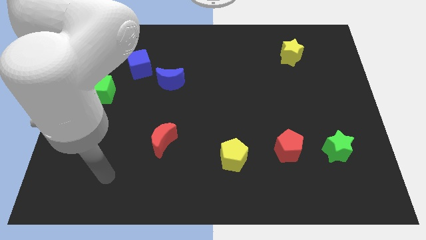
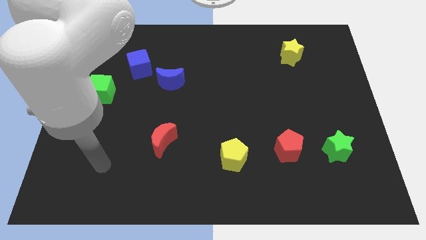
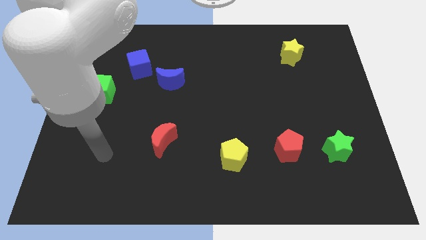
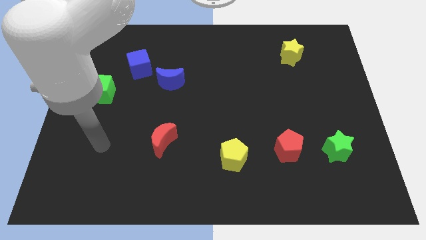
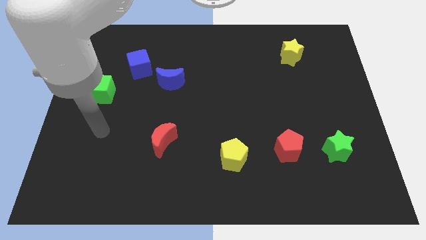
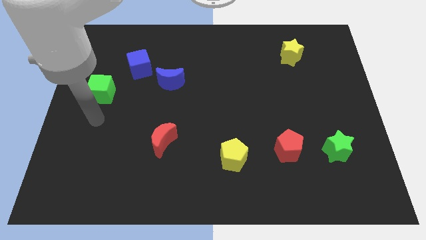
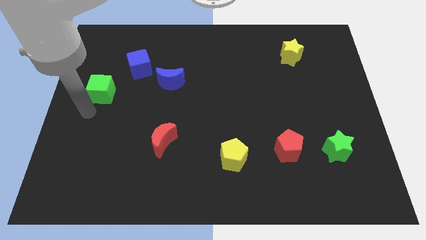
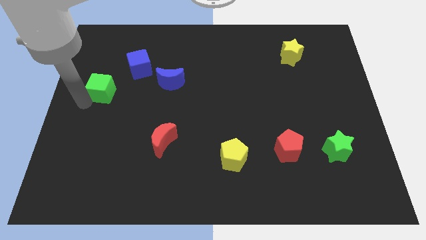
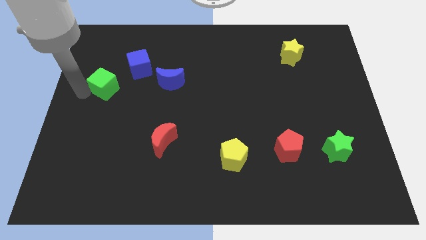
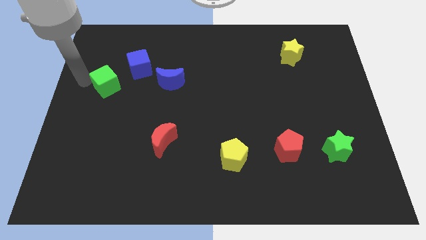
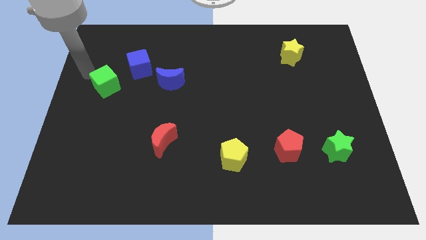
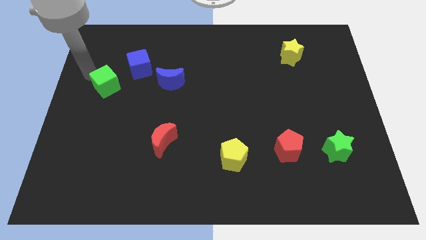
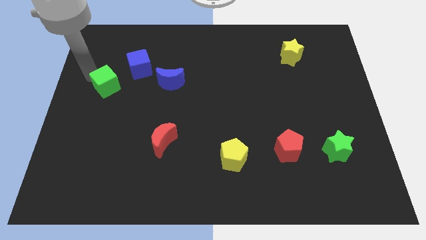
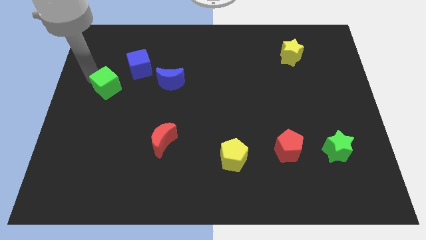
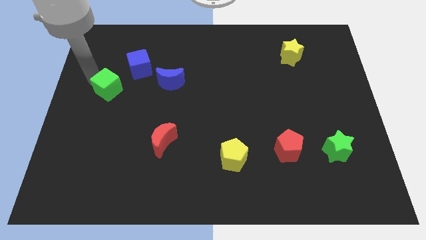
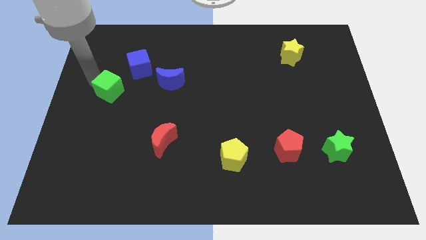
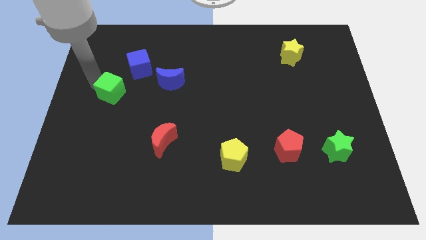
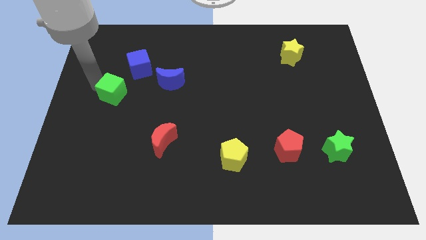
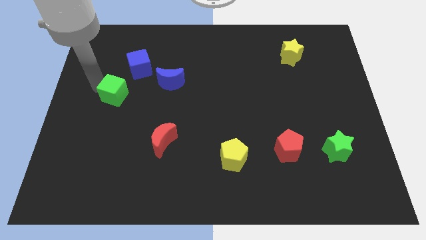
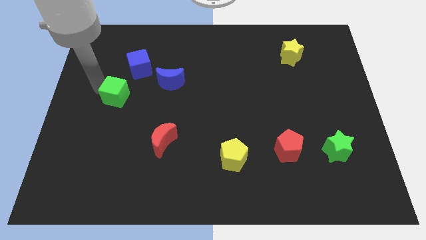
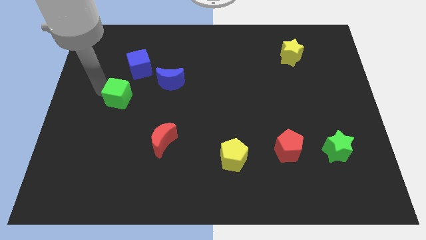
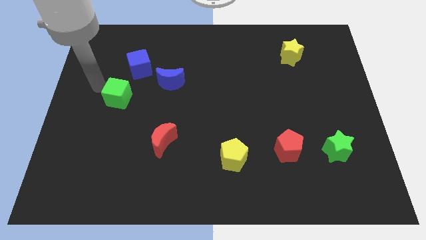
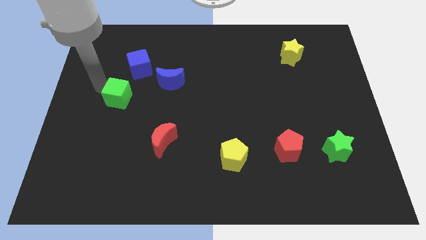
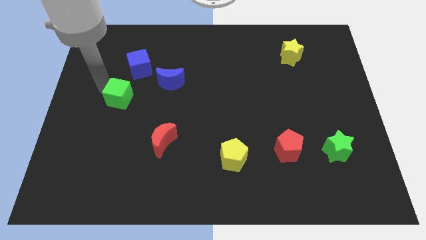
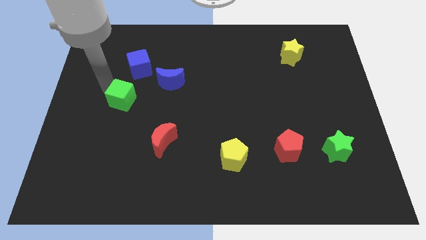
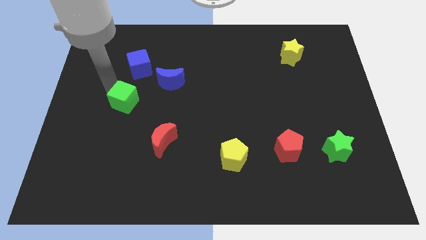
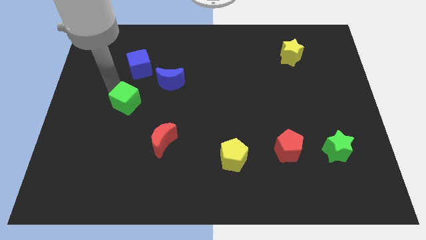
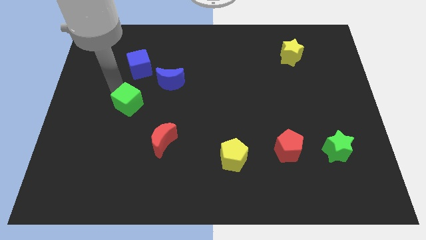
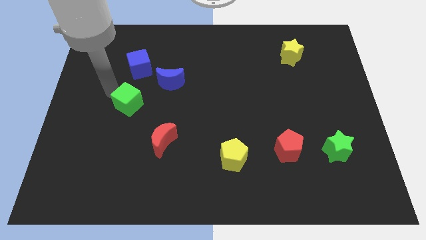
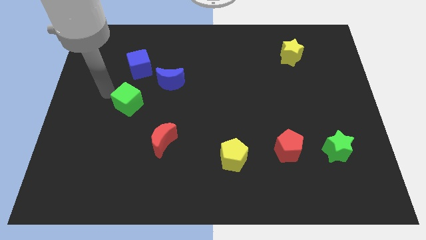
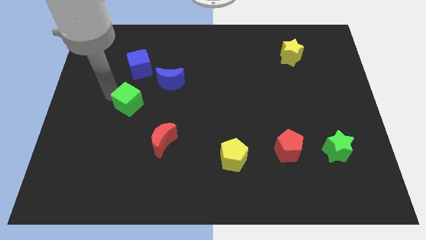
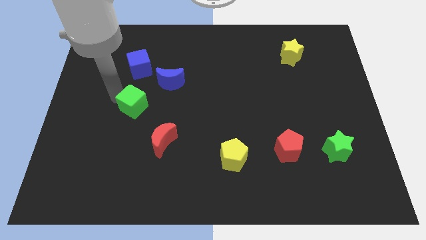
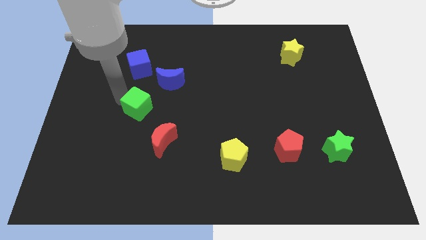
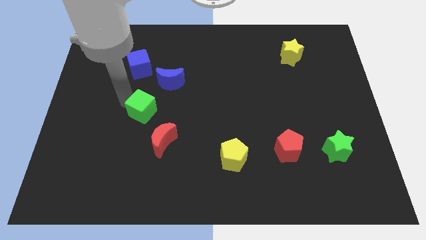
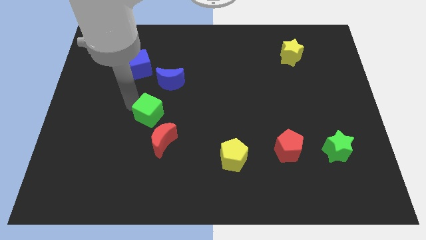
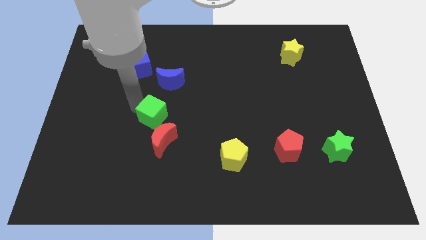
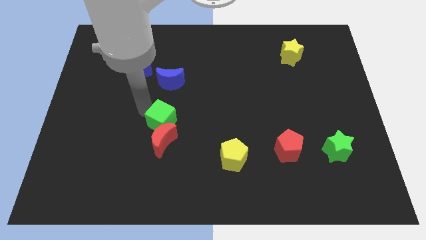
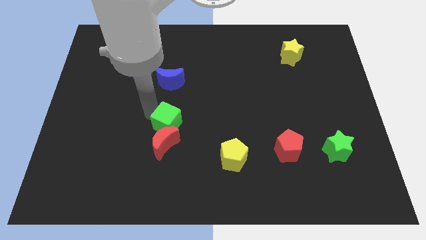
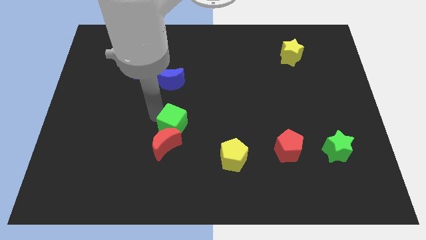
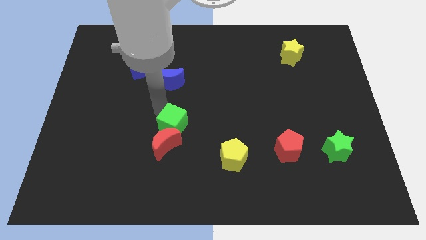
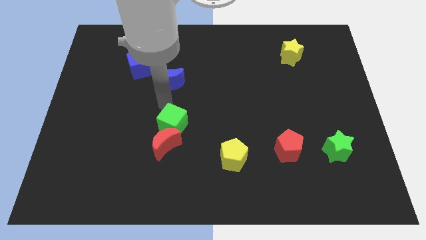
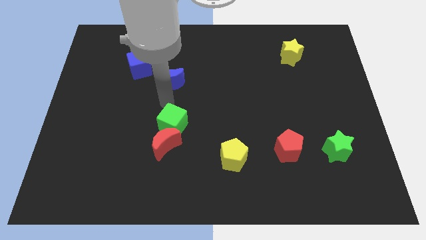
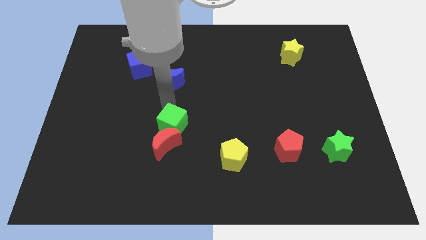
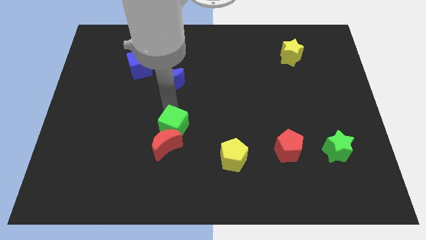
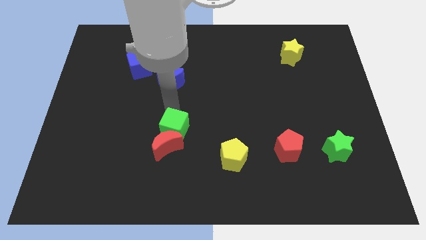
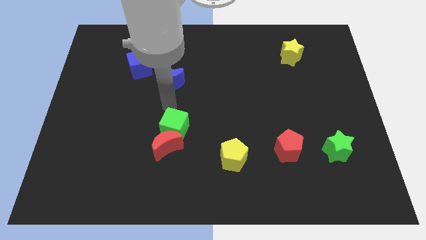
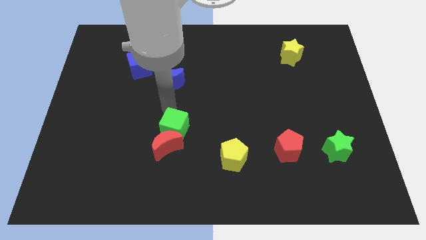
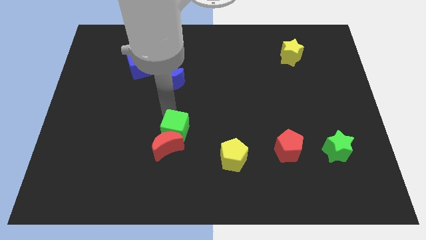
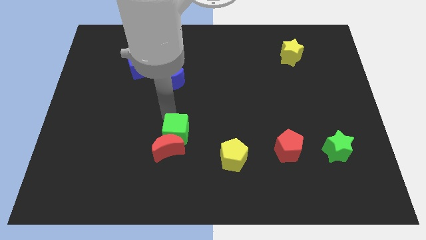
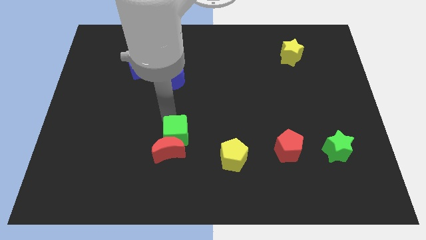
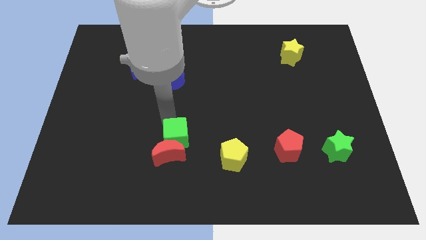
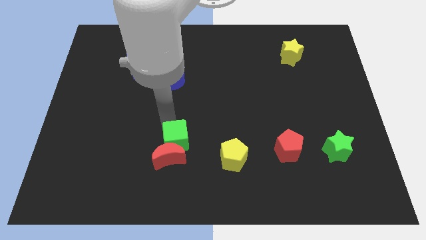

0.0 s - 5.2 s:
move the green cube to the left of the yellow pentagon

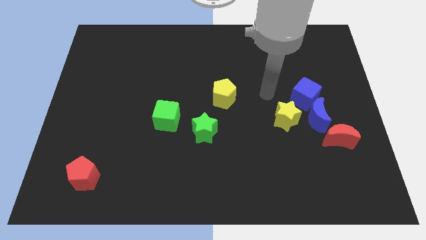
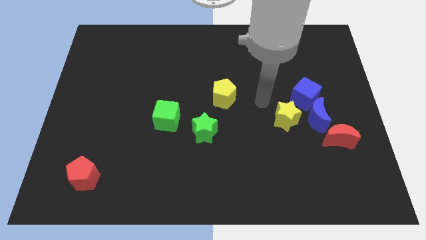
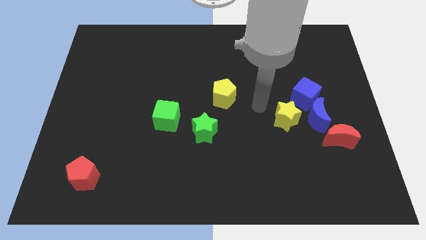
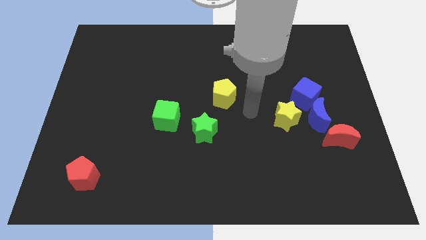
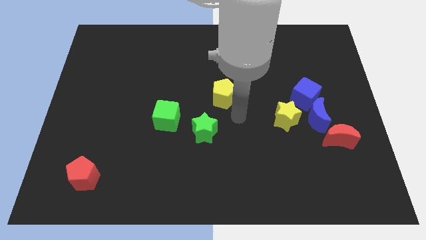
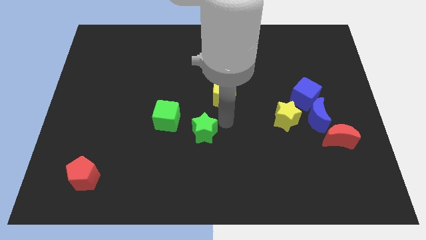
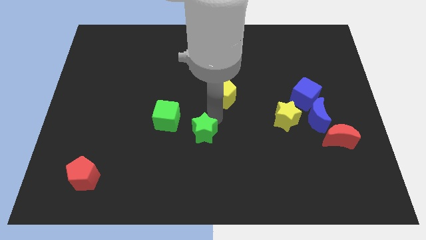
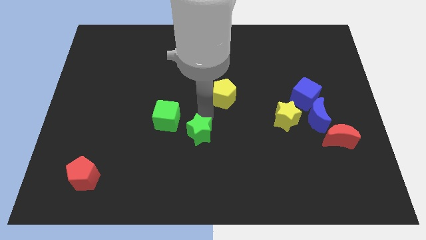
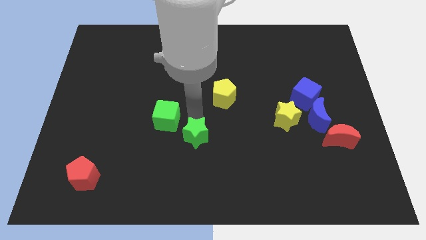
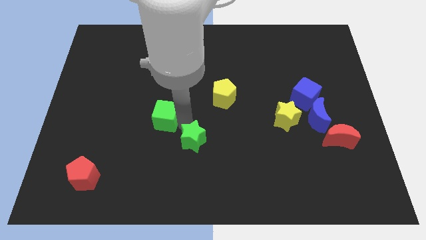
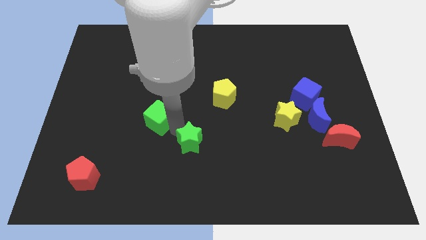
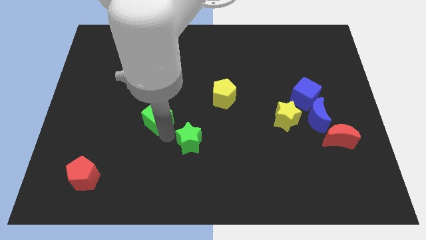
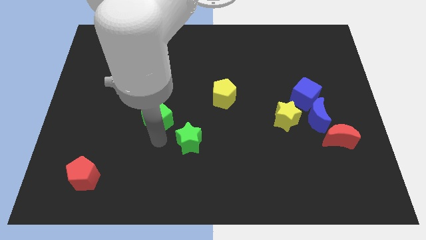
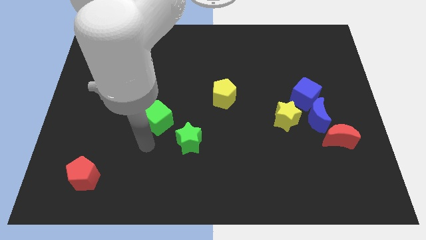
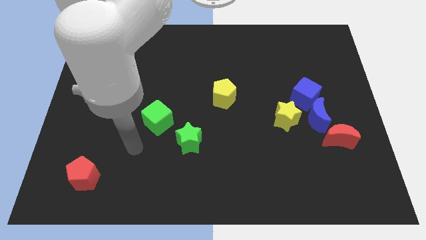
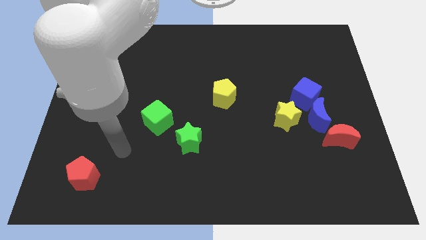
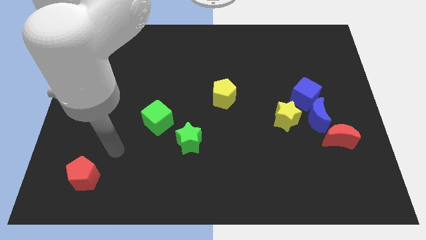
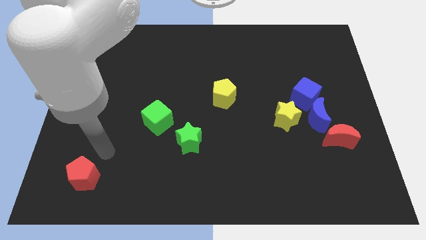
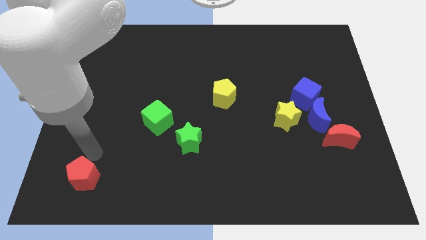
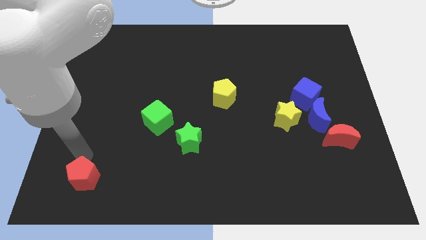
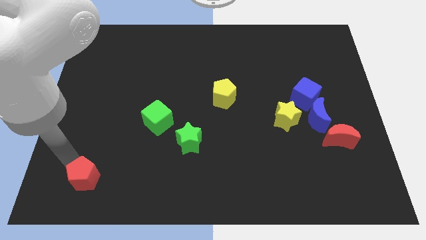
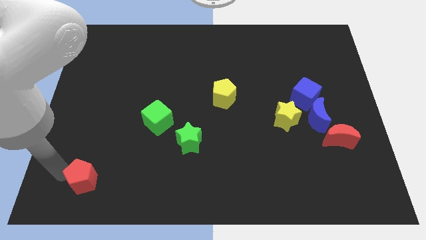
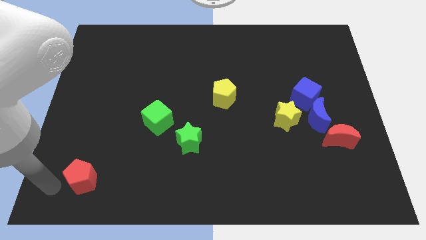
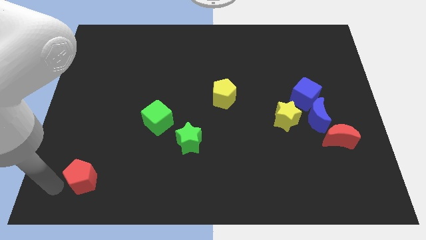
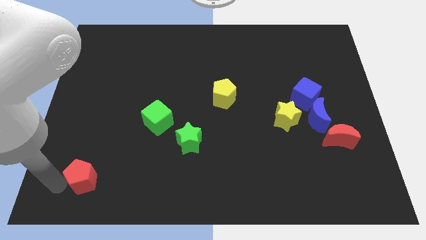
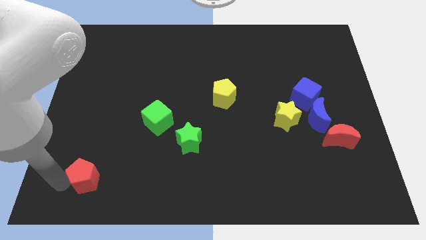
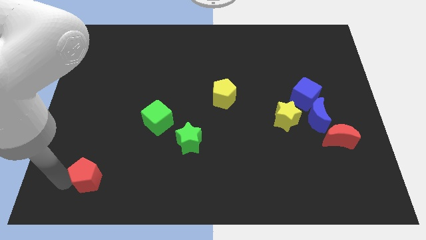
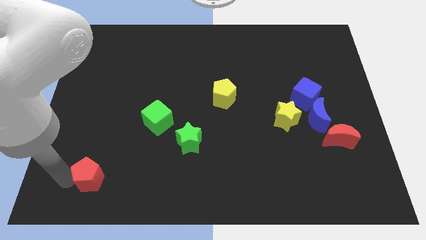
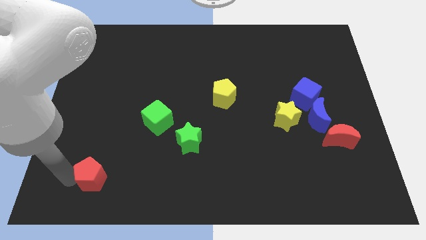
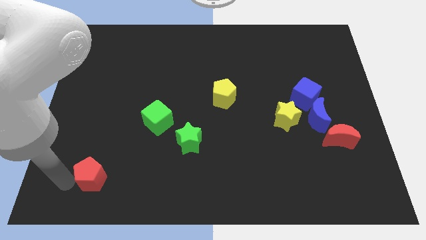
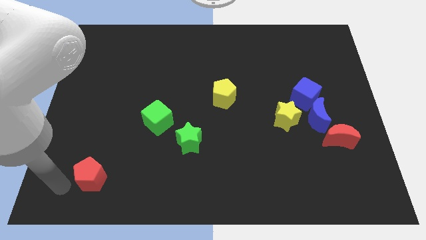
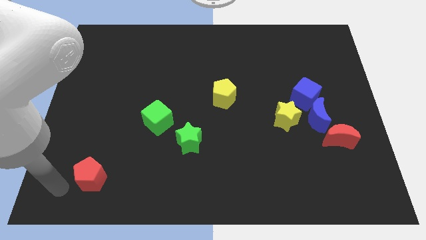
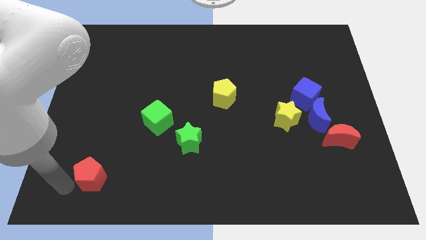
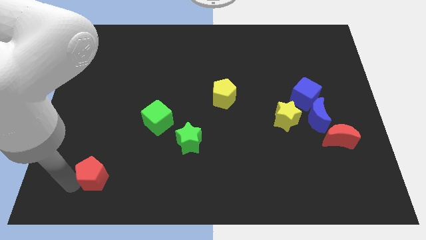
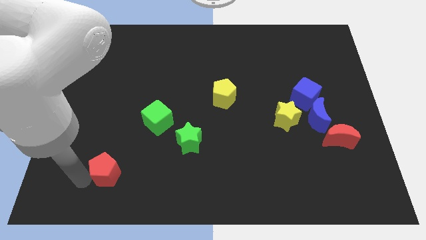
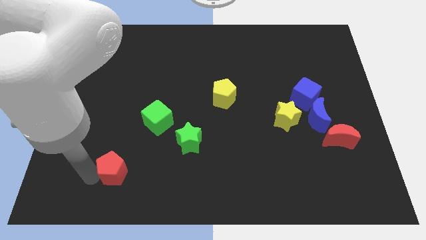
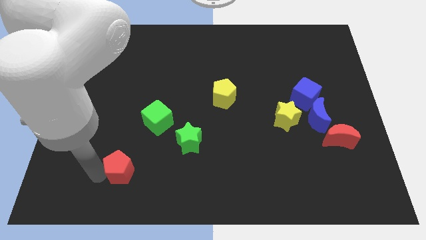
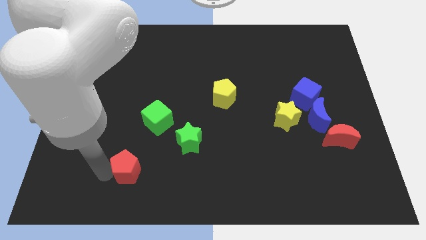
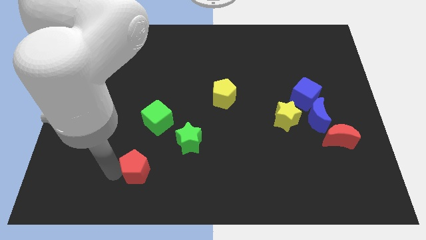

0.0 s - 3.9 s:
put the red pentagon to the bottom side of the green cube
